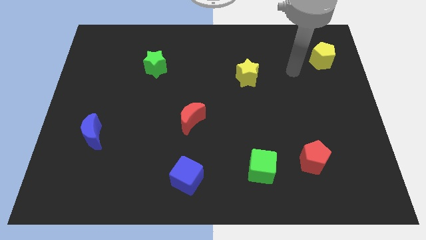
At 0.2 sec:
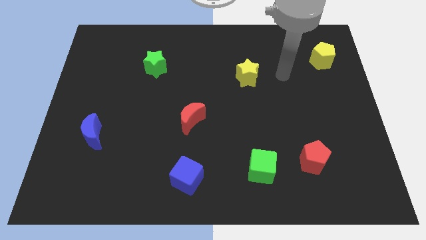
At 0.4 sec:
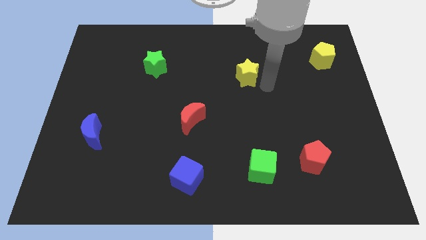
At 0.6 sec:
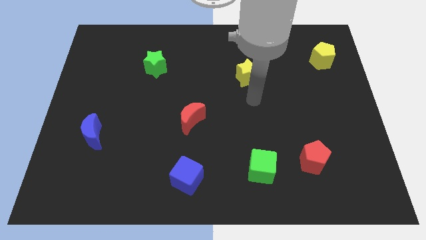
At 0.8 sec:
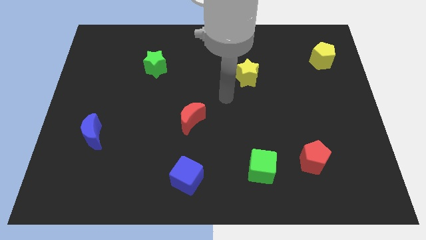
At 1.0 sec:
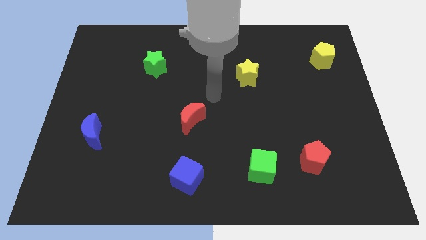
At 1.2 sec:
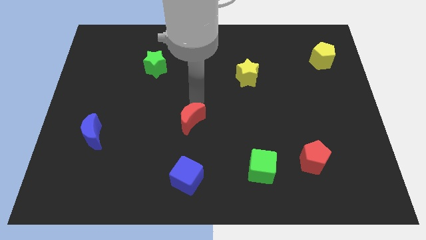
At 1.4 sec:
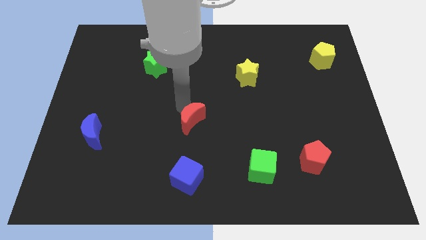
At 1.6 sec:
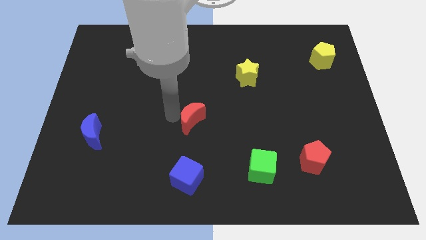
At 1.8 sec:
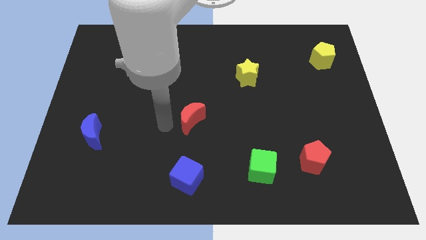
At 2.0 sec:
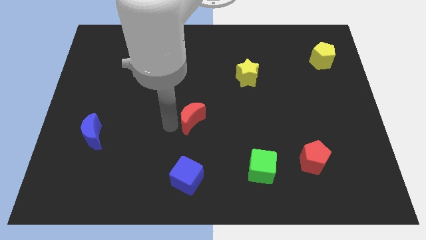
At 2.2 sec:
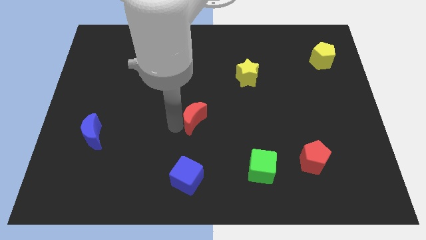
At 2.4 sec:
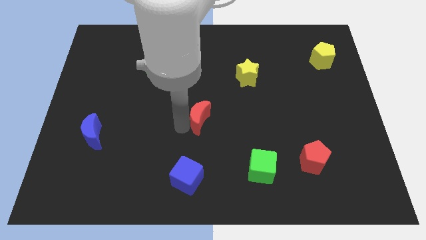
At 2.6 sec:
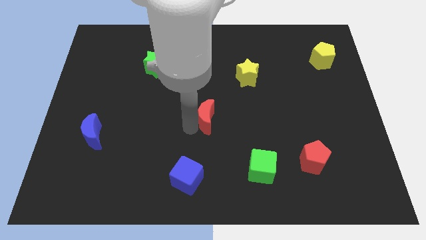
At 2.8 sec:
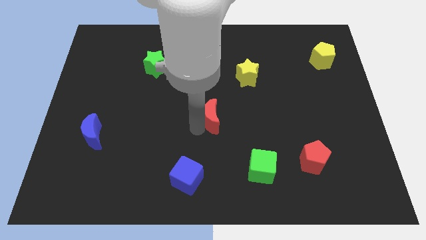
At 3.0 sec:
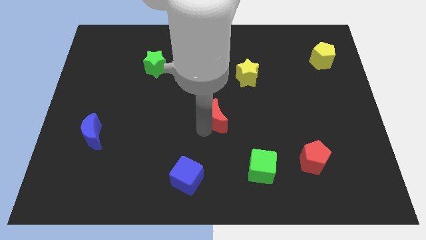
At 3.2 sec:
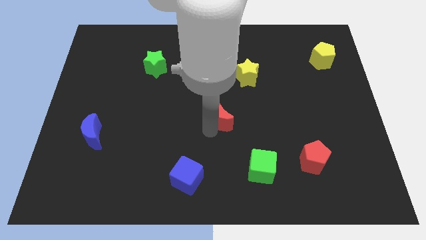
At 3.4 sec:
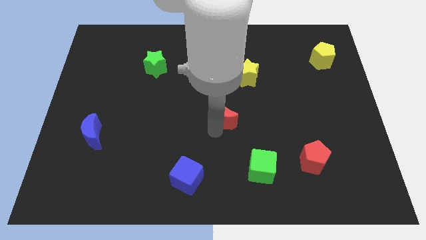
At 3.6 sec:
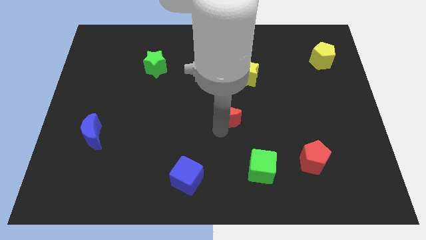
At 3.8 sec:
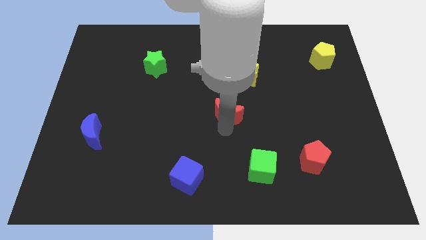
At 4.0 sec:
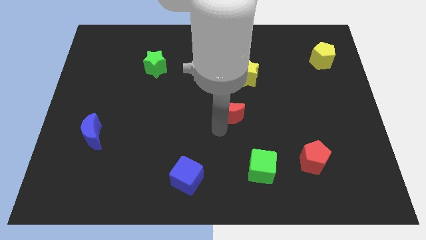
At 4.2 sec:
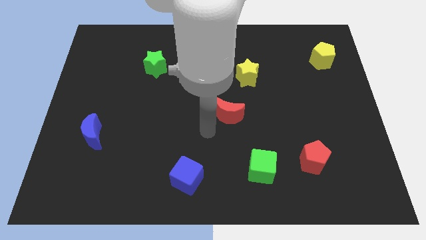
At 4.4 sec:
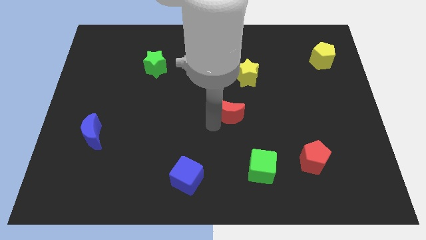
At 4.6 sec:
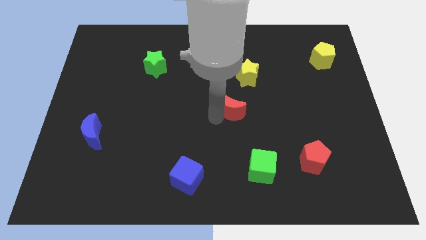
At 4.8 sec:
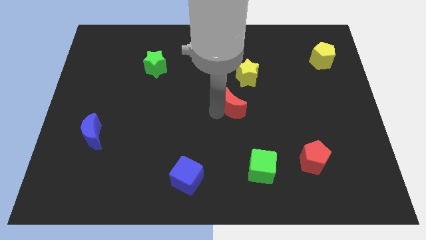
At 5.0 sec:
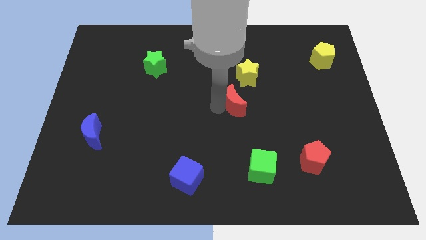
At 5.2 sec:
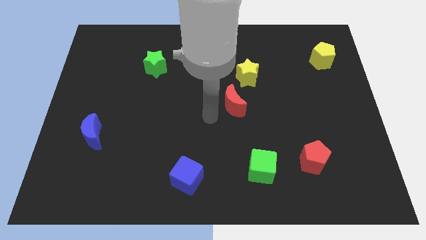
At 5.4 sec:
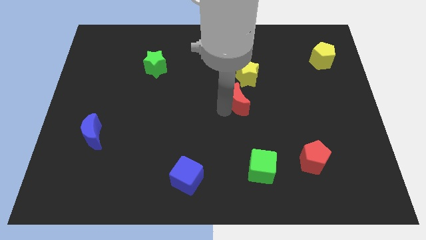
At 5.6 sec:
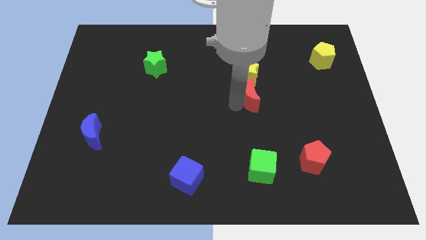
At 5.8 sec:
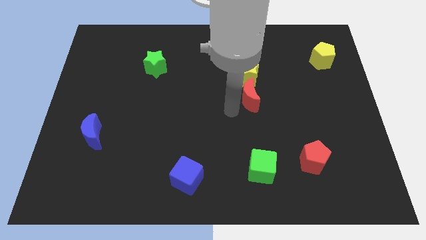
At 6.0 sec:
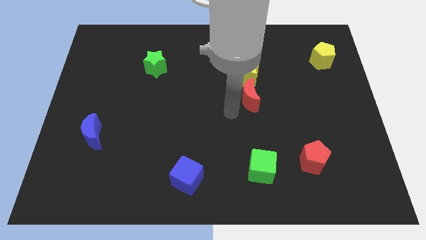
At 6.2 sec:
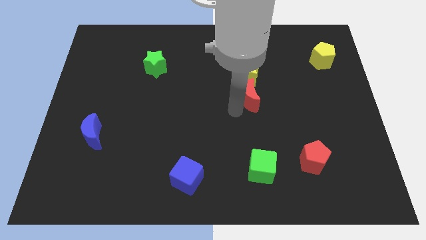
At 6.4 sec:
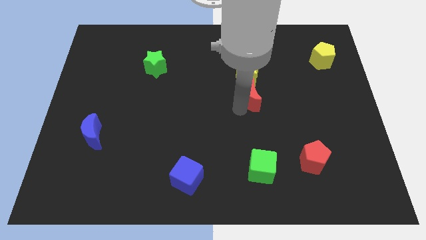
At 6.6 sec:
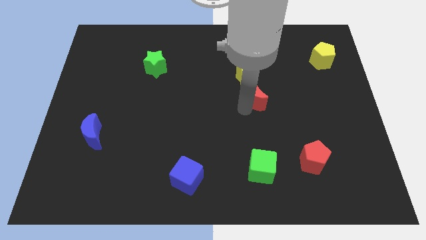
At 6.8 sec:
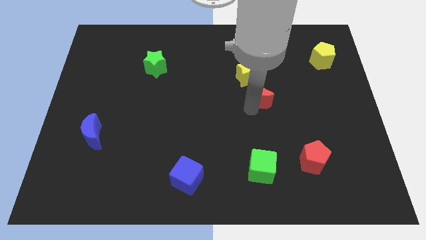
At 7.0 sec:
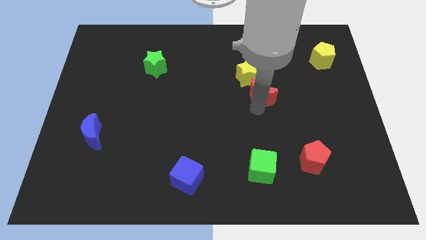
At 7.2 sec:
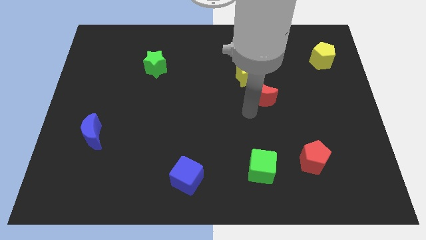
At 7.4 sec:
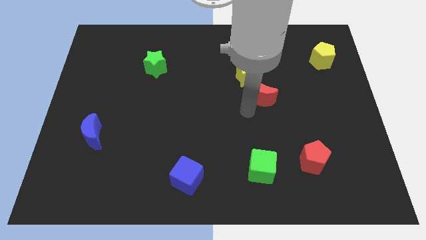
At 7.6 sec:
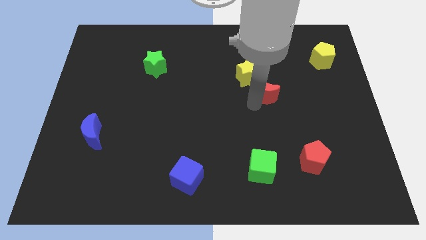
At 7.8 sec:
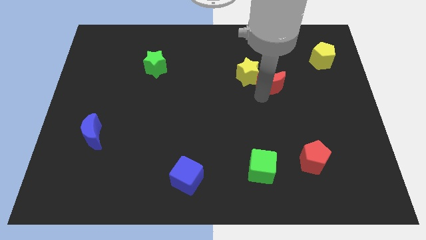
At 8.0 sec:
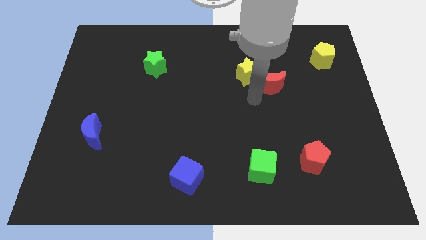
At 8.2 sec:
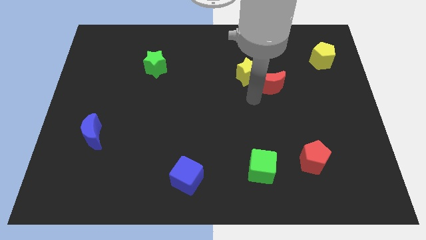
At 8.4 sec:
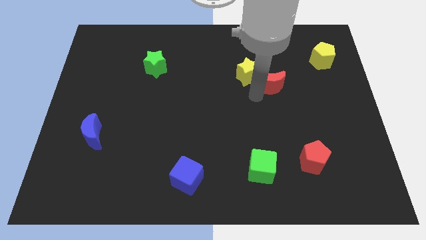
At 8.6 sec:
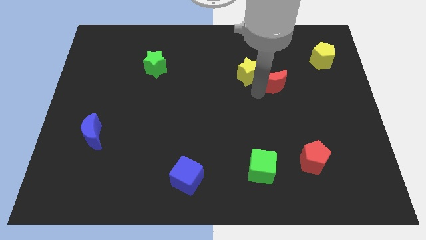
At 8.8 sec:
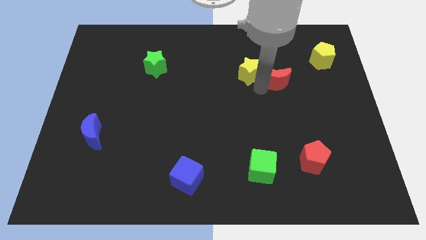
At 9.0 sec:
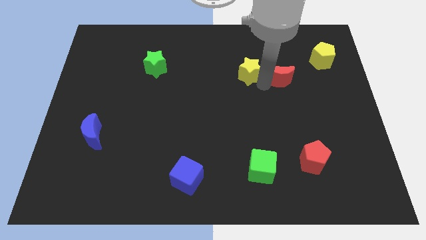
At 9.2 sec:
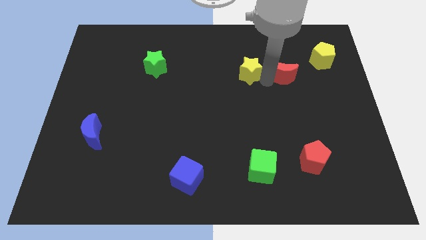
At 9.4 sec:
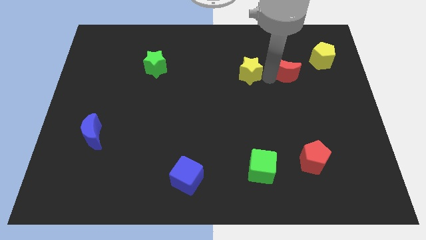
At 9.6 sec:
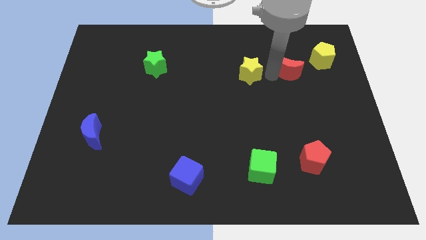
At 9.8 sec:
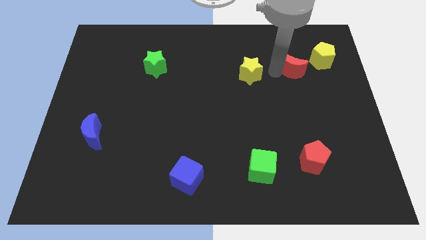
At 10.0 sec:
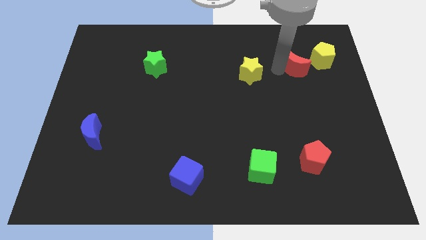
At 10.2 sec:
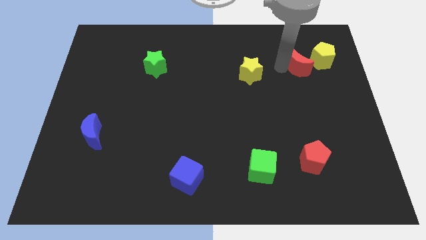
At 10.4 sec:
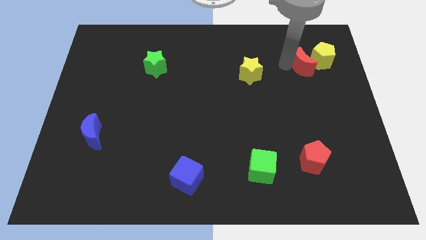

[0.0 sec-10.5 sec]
put the red moon close to the yellow pentagon

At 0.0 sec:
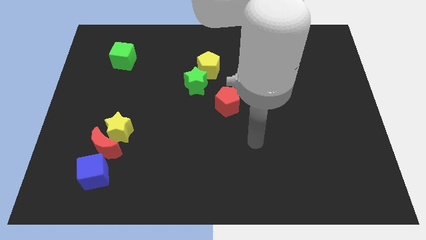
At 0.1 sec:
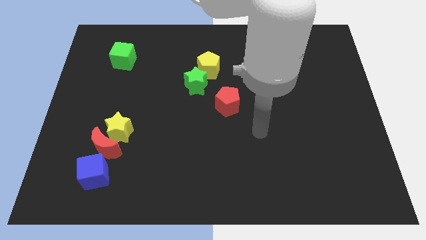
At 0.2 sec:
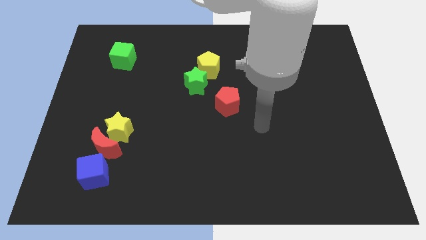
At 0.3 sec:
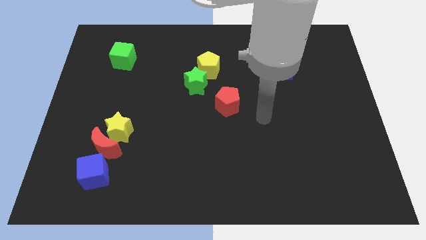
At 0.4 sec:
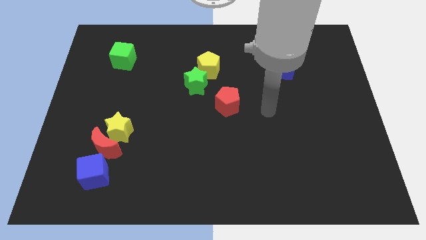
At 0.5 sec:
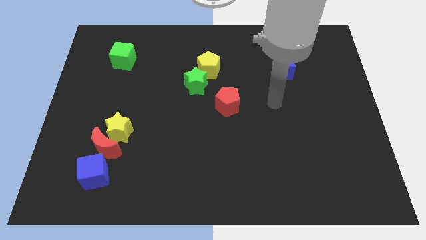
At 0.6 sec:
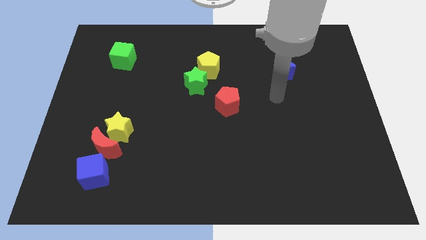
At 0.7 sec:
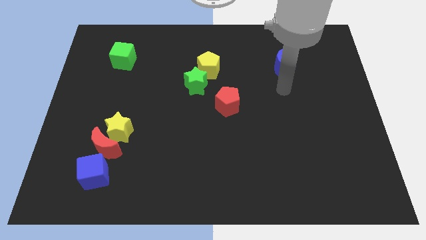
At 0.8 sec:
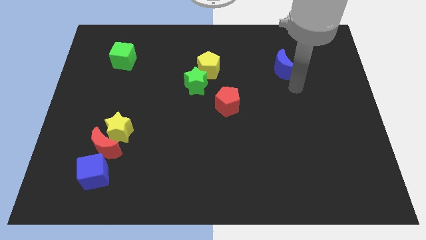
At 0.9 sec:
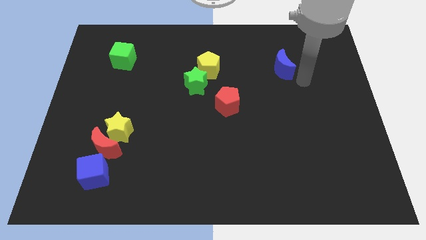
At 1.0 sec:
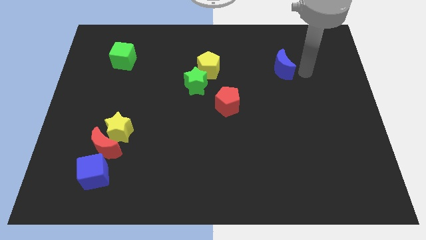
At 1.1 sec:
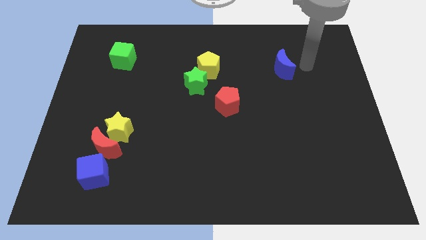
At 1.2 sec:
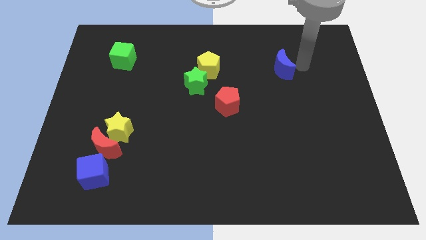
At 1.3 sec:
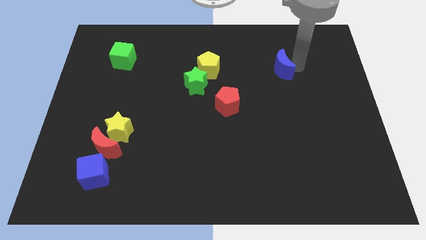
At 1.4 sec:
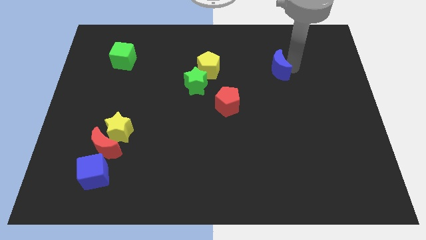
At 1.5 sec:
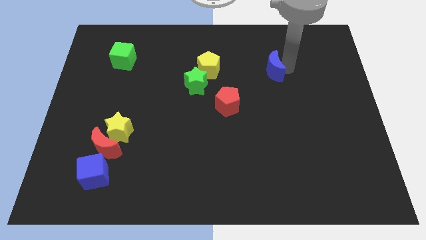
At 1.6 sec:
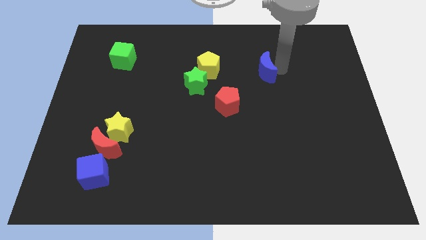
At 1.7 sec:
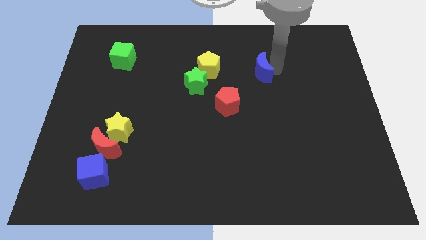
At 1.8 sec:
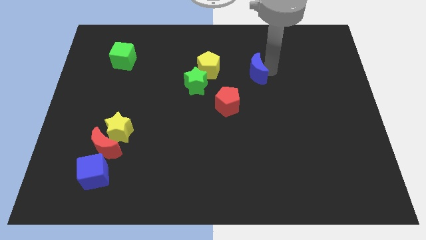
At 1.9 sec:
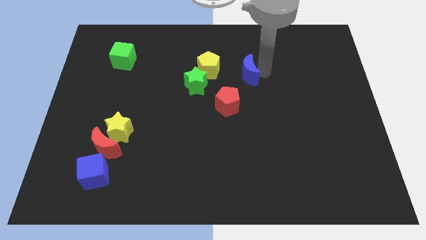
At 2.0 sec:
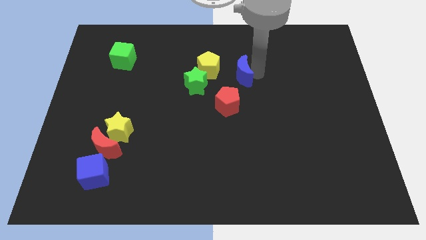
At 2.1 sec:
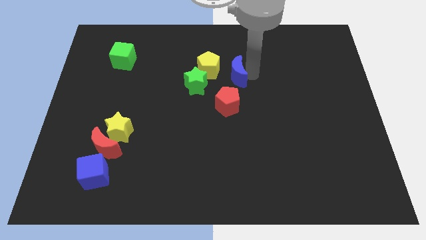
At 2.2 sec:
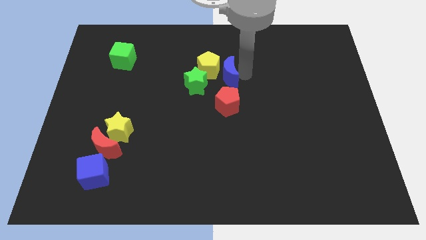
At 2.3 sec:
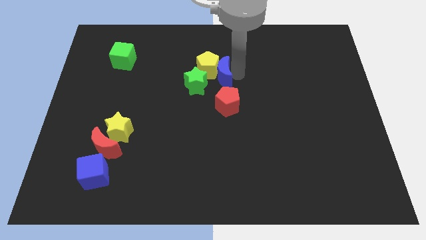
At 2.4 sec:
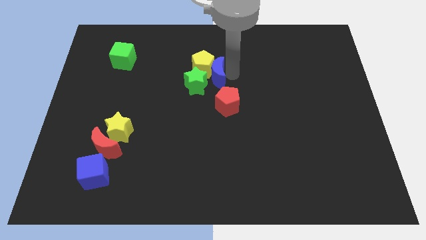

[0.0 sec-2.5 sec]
slide the blue moon towards the green star
